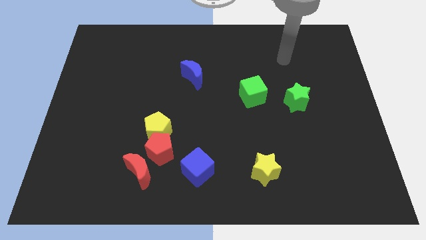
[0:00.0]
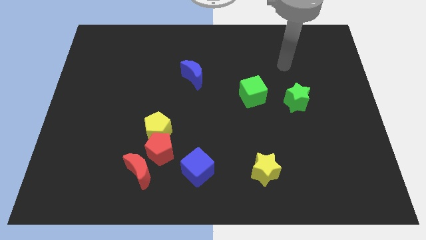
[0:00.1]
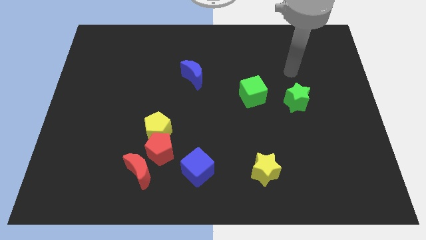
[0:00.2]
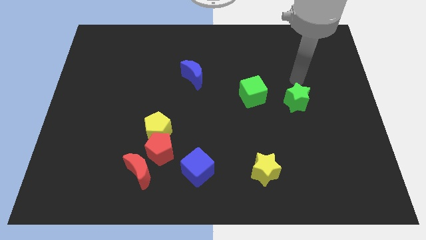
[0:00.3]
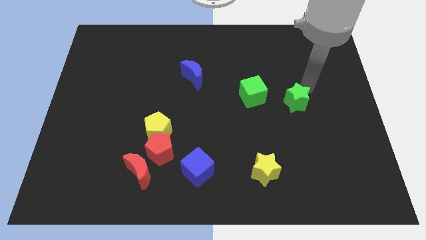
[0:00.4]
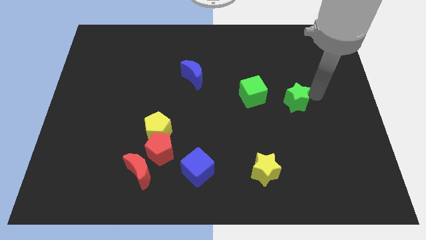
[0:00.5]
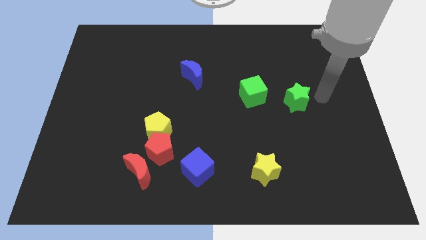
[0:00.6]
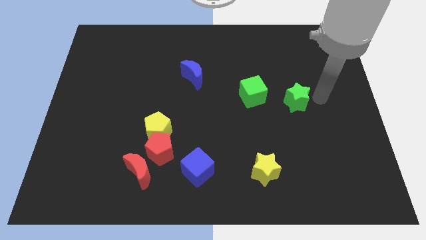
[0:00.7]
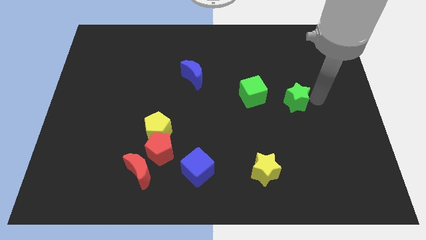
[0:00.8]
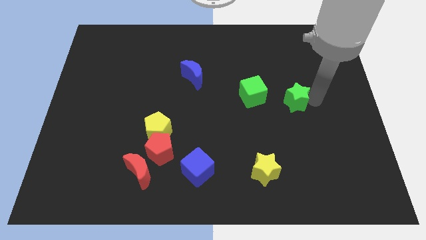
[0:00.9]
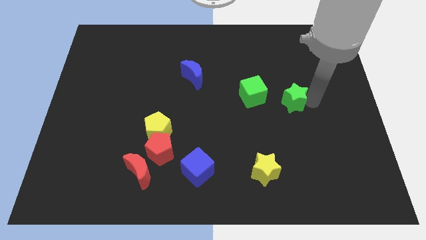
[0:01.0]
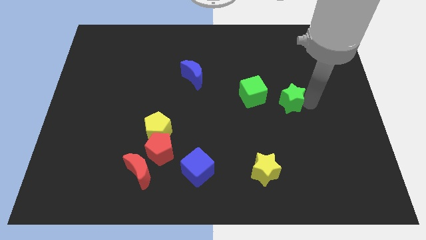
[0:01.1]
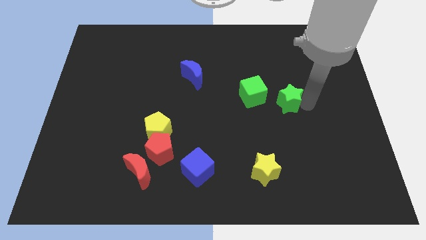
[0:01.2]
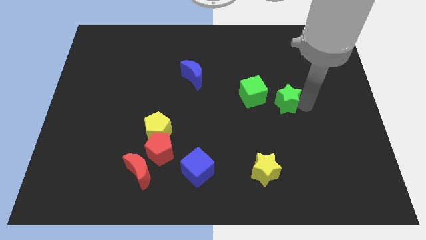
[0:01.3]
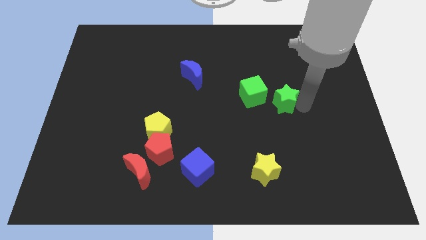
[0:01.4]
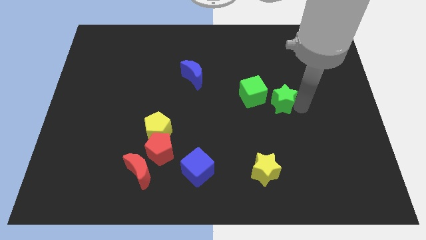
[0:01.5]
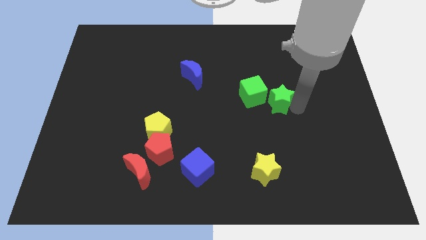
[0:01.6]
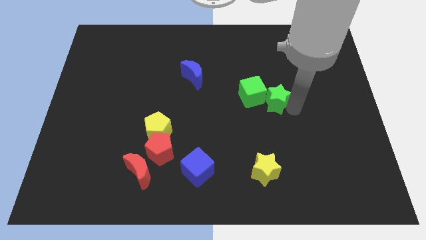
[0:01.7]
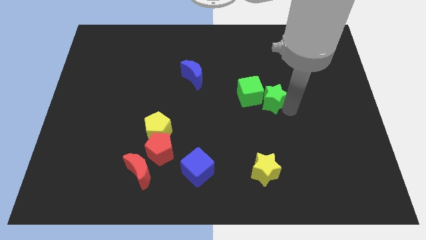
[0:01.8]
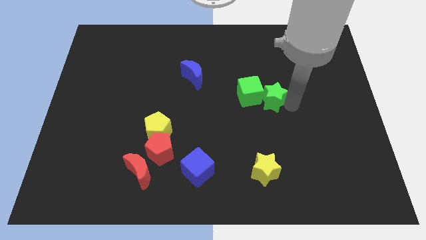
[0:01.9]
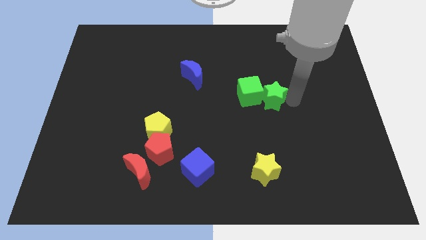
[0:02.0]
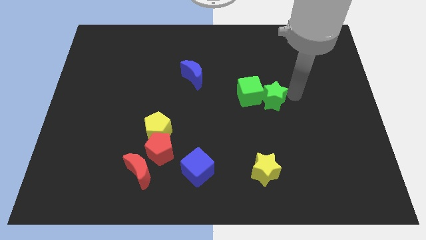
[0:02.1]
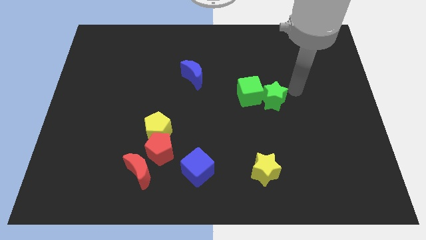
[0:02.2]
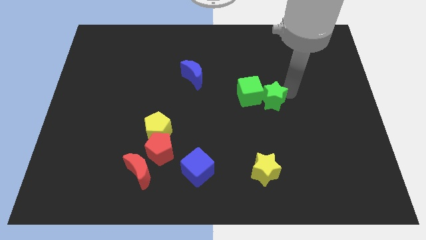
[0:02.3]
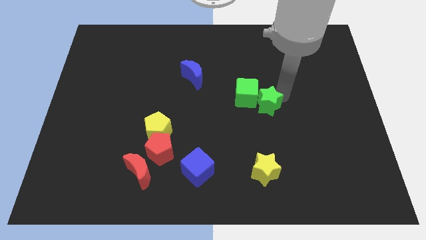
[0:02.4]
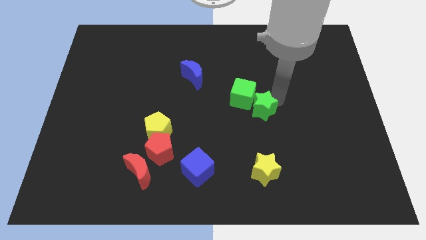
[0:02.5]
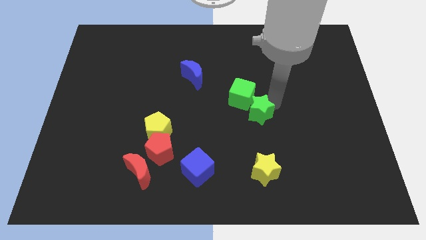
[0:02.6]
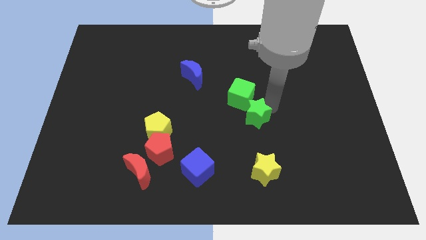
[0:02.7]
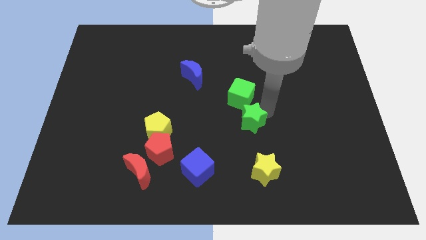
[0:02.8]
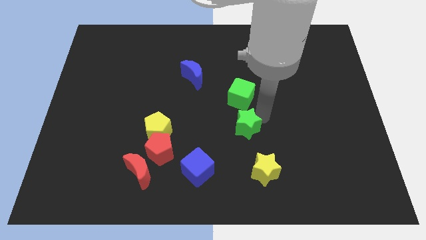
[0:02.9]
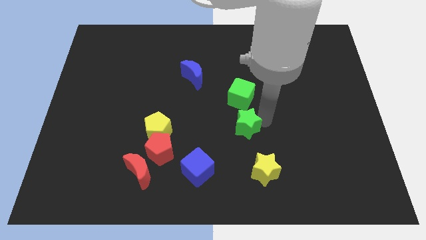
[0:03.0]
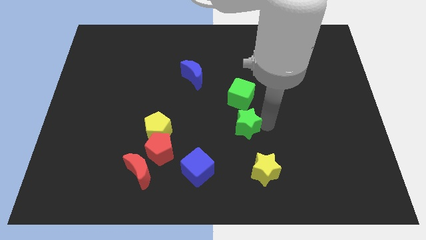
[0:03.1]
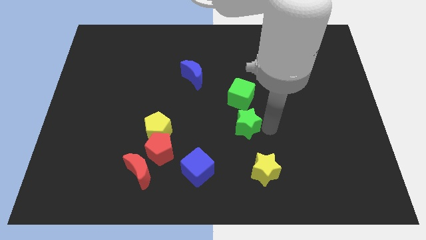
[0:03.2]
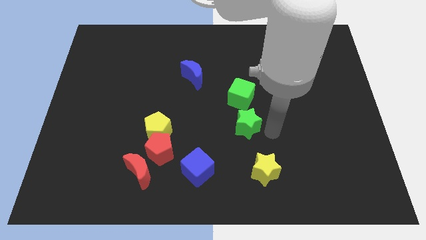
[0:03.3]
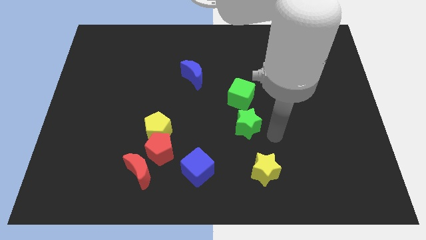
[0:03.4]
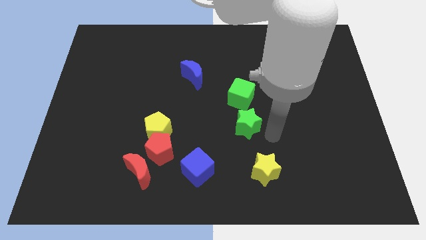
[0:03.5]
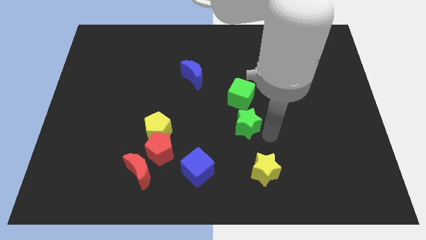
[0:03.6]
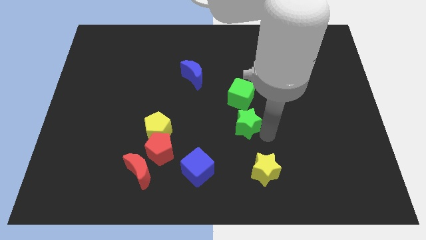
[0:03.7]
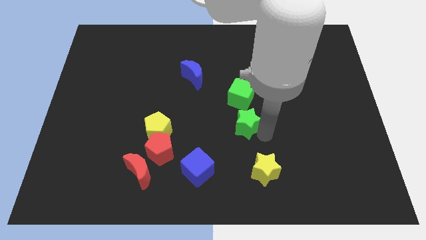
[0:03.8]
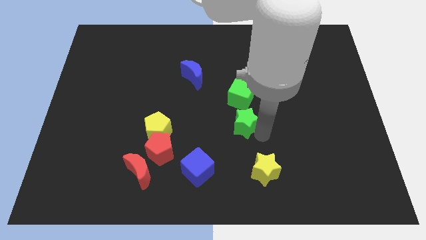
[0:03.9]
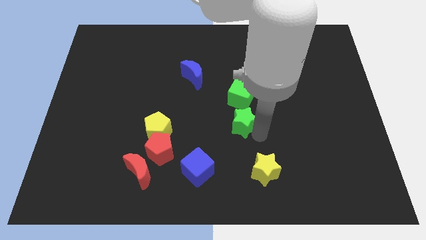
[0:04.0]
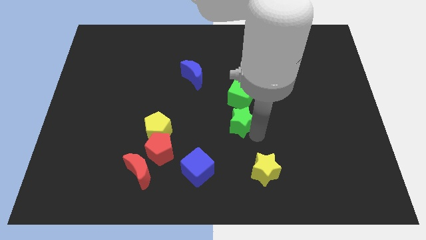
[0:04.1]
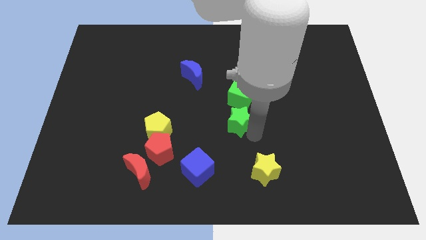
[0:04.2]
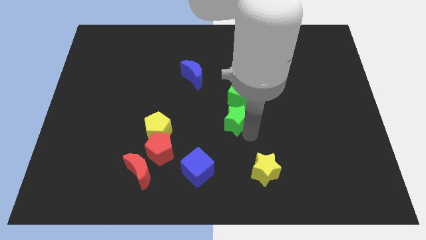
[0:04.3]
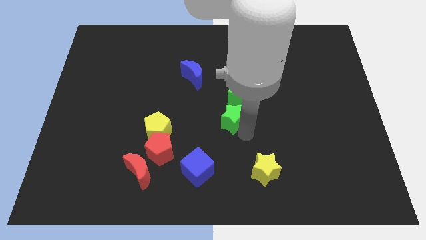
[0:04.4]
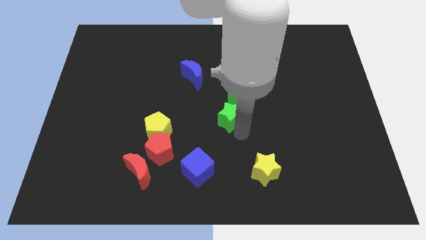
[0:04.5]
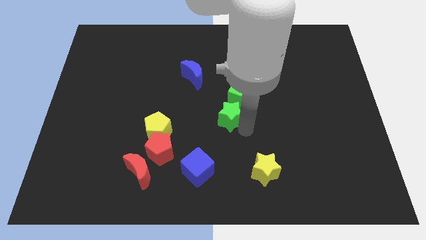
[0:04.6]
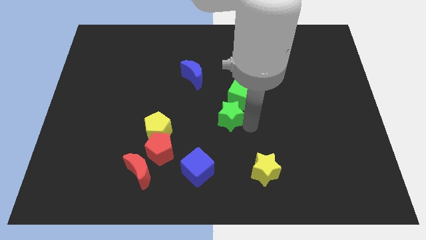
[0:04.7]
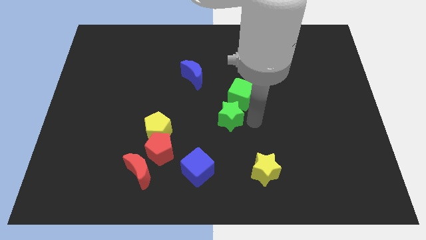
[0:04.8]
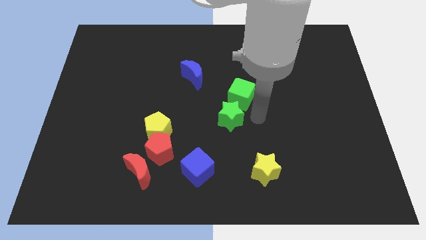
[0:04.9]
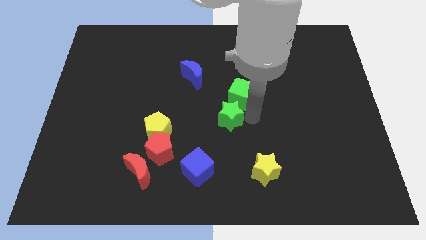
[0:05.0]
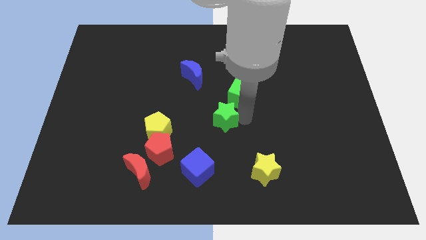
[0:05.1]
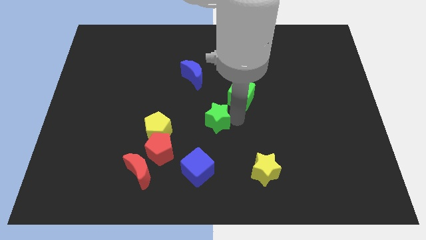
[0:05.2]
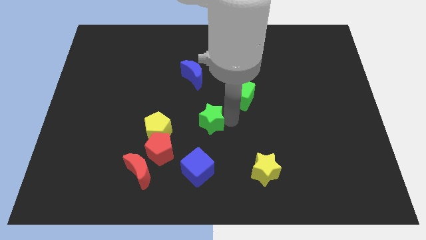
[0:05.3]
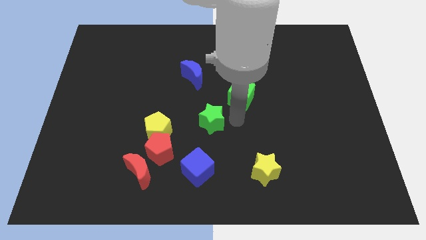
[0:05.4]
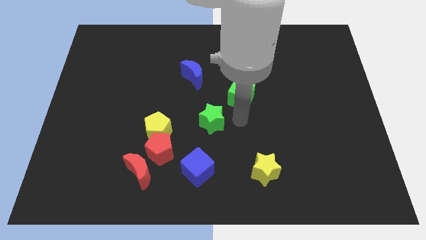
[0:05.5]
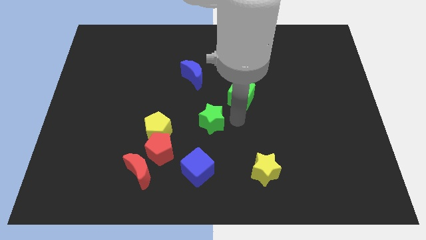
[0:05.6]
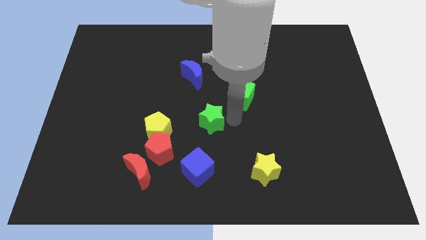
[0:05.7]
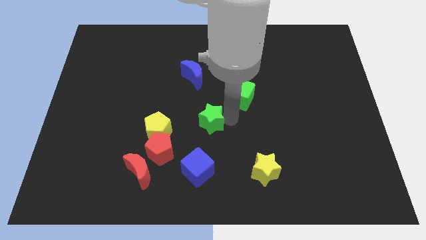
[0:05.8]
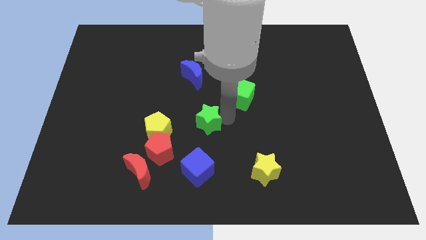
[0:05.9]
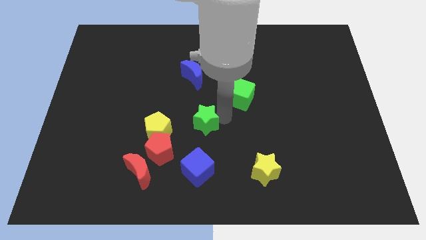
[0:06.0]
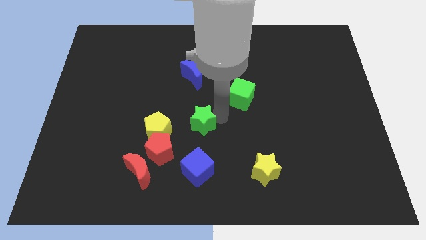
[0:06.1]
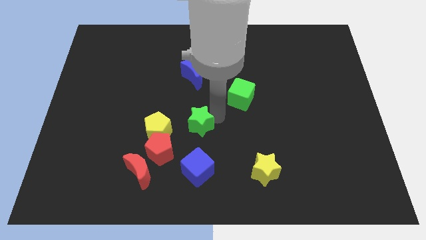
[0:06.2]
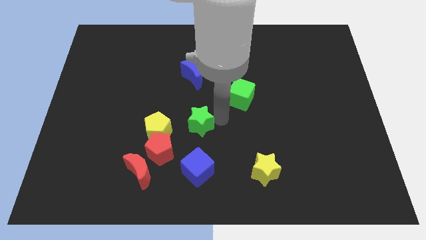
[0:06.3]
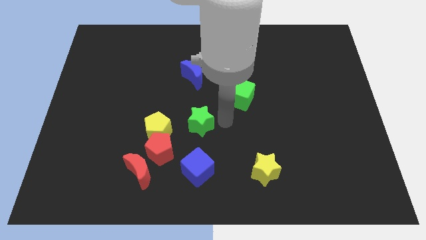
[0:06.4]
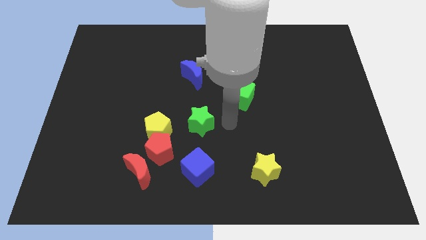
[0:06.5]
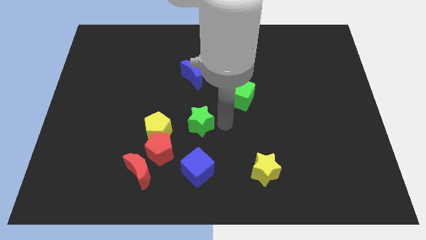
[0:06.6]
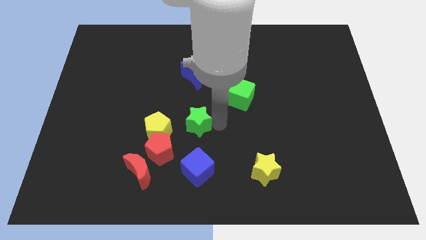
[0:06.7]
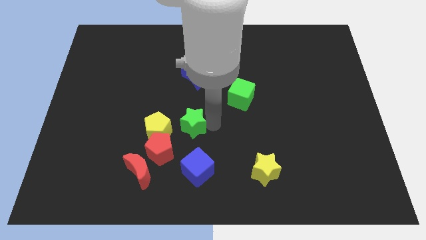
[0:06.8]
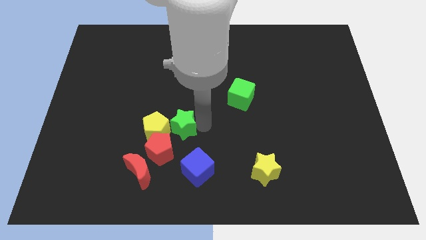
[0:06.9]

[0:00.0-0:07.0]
slide the green star to the yellow pentagon

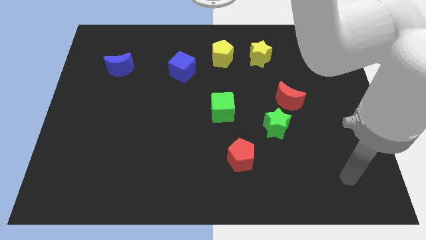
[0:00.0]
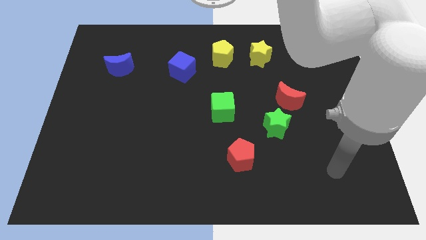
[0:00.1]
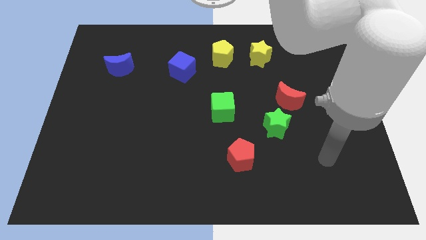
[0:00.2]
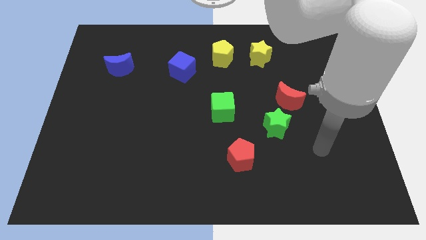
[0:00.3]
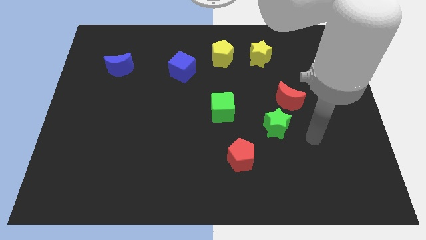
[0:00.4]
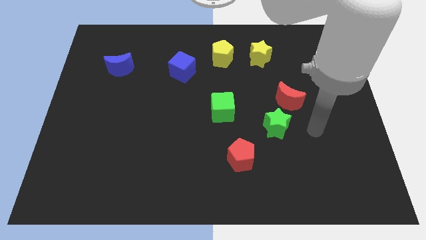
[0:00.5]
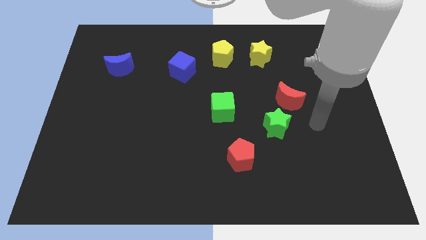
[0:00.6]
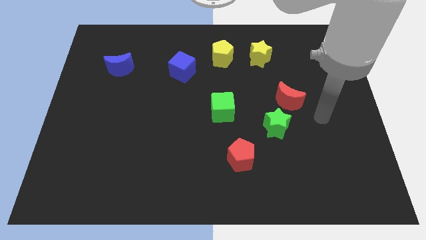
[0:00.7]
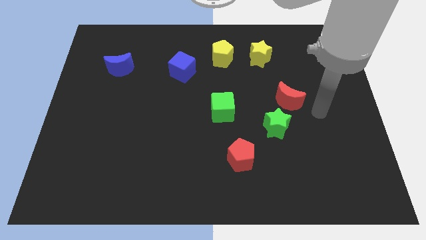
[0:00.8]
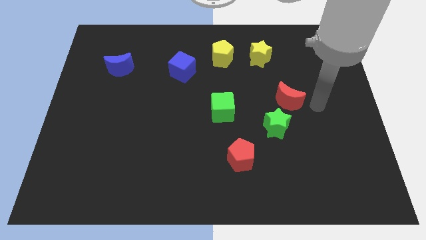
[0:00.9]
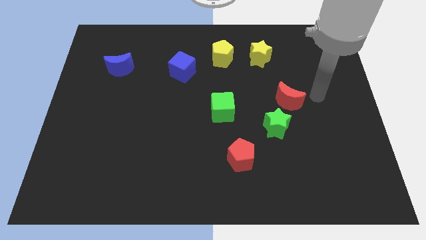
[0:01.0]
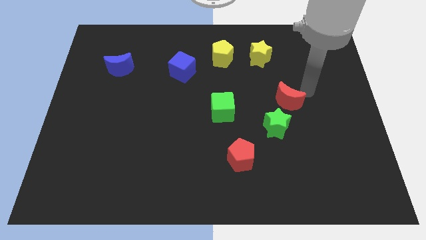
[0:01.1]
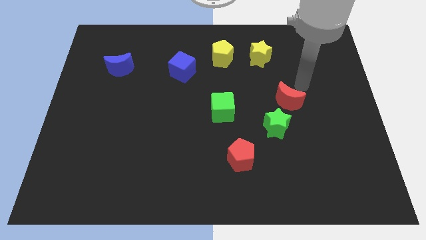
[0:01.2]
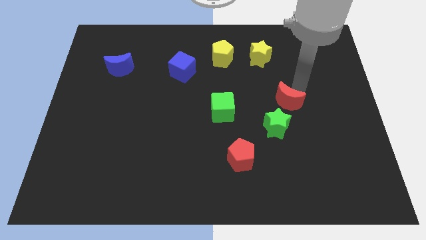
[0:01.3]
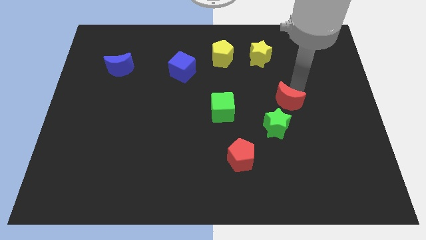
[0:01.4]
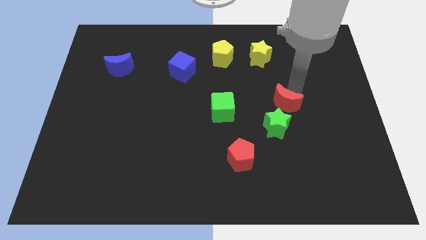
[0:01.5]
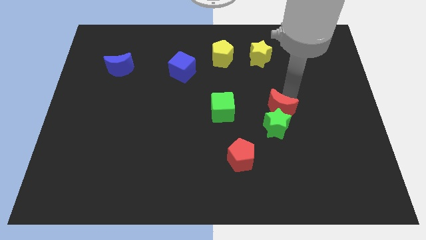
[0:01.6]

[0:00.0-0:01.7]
put the red moon to the green star
